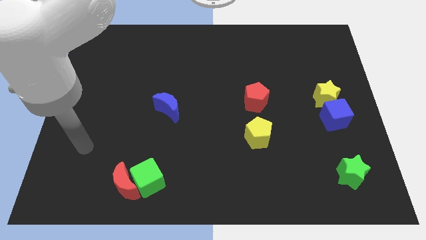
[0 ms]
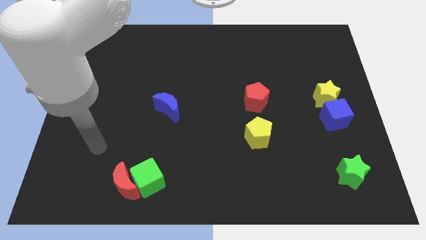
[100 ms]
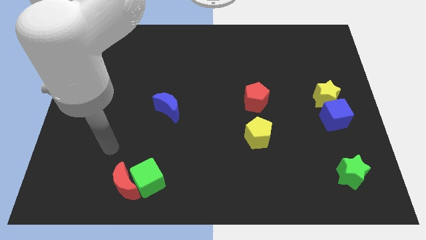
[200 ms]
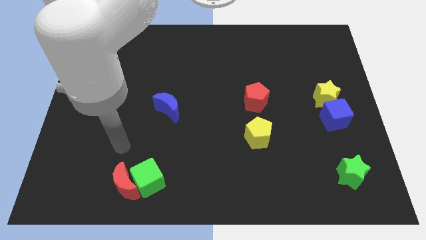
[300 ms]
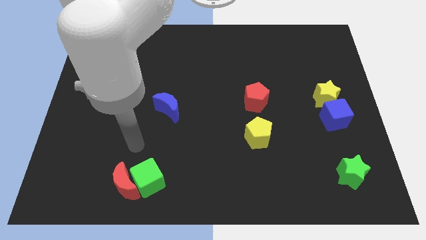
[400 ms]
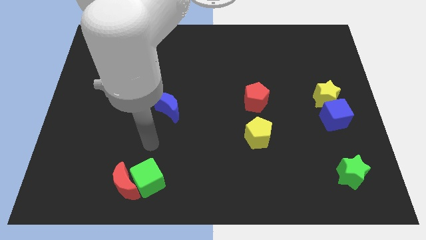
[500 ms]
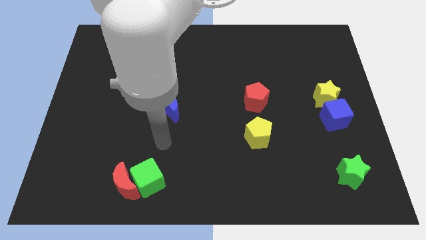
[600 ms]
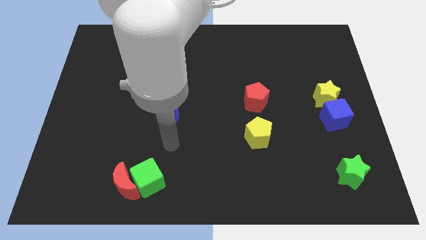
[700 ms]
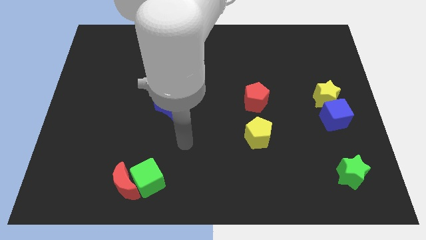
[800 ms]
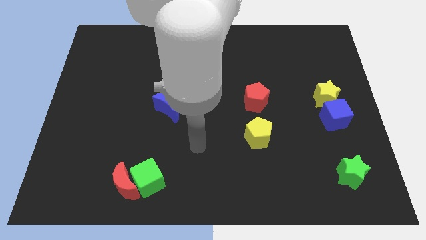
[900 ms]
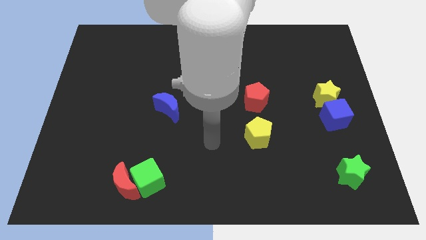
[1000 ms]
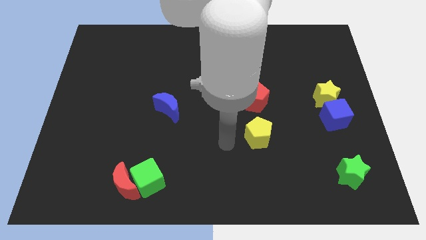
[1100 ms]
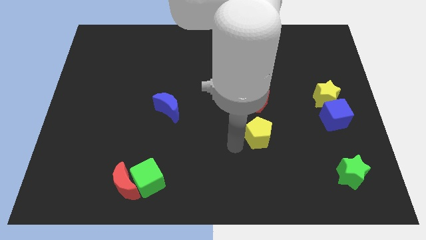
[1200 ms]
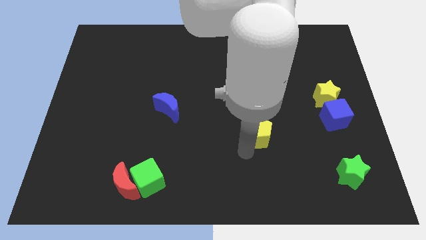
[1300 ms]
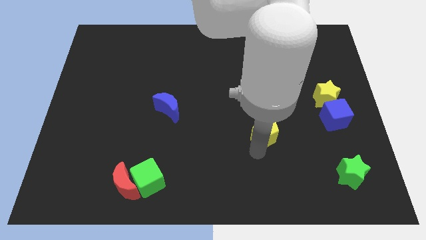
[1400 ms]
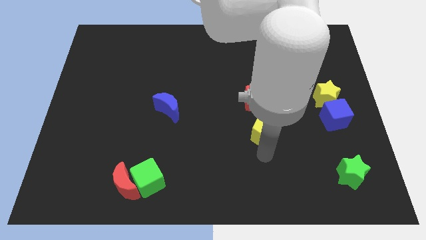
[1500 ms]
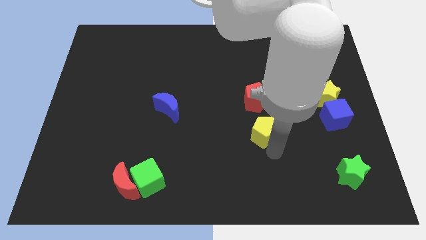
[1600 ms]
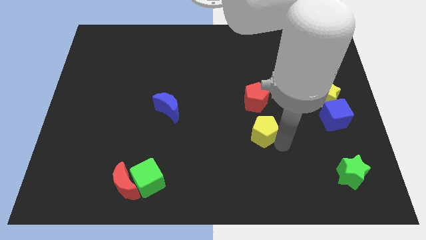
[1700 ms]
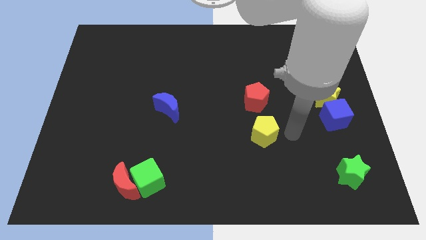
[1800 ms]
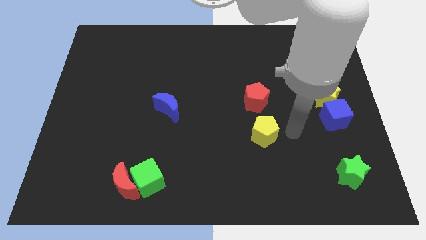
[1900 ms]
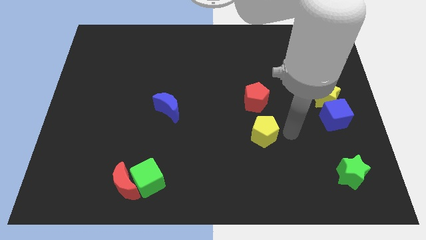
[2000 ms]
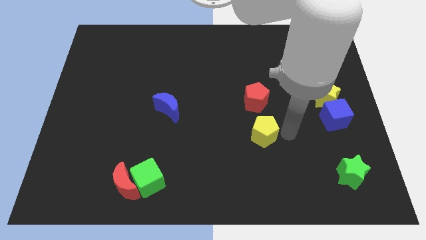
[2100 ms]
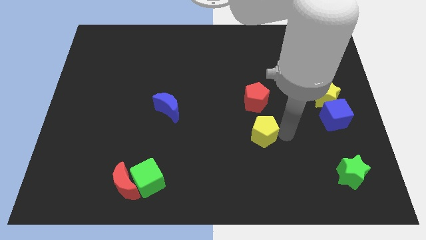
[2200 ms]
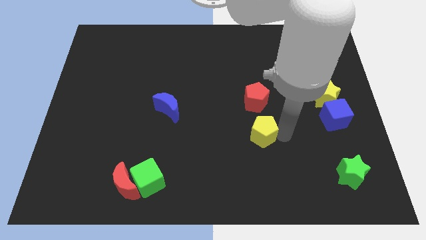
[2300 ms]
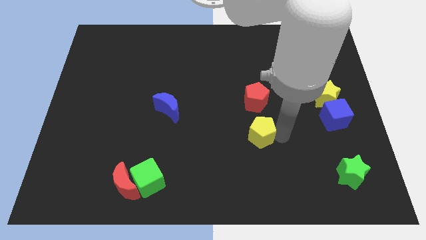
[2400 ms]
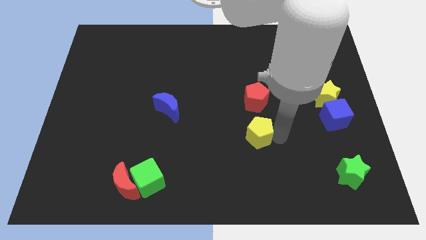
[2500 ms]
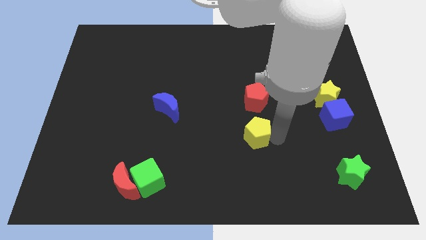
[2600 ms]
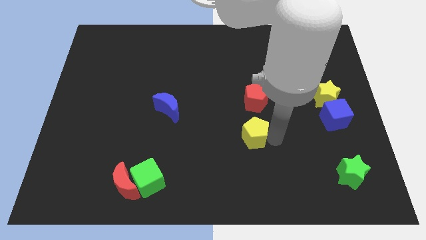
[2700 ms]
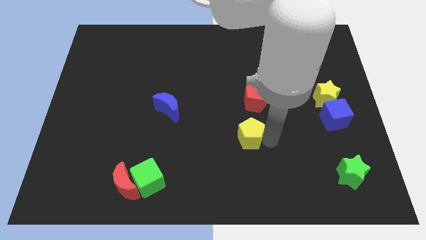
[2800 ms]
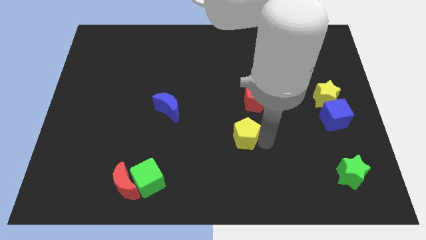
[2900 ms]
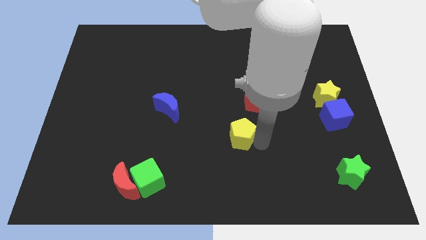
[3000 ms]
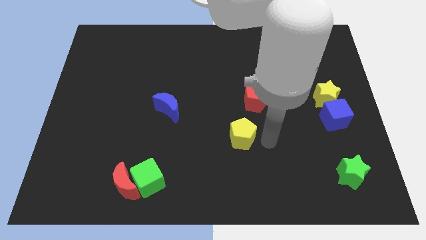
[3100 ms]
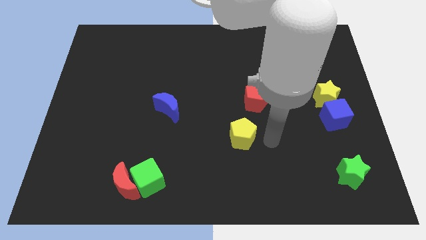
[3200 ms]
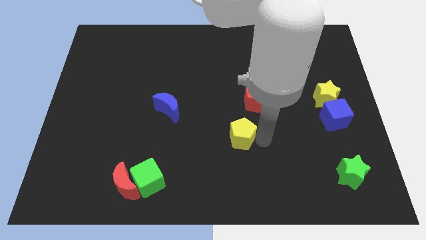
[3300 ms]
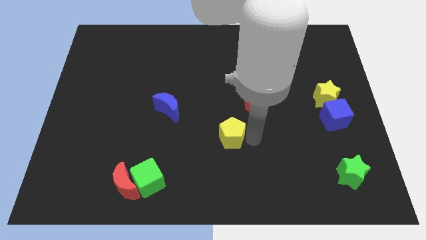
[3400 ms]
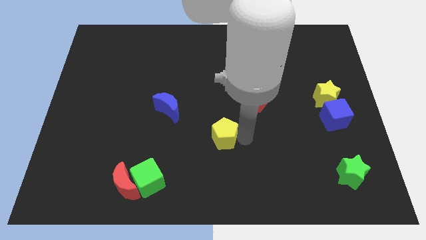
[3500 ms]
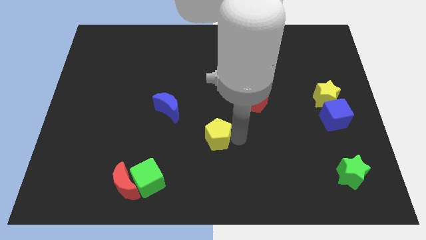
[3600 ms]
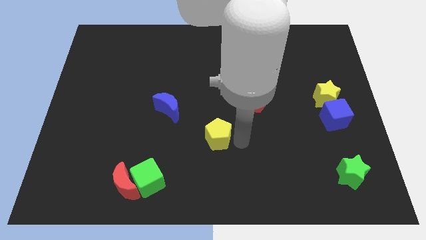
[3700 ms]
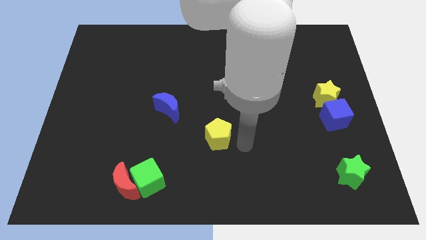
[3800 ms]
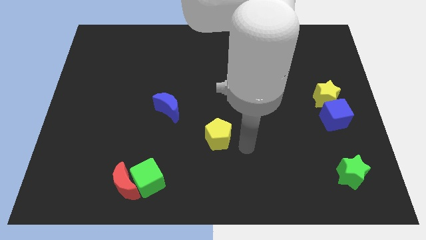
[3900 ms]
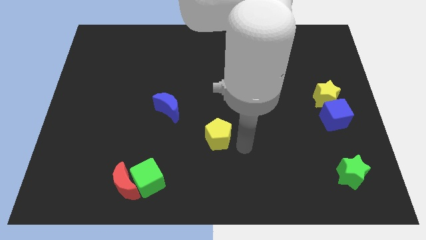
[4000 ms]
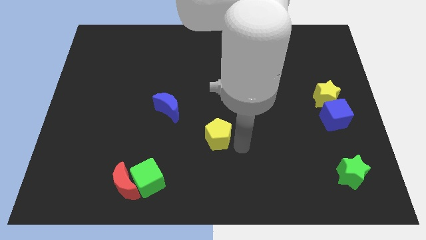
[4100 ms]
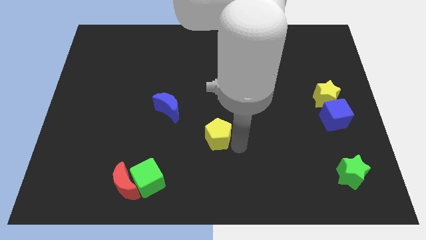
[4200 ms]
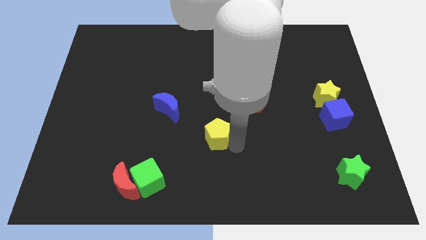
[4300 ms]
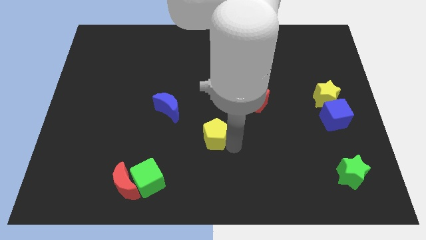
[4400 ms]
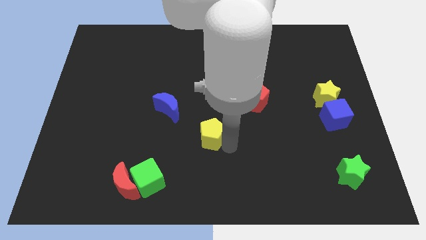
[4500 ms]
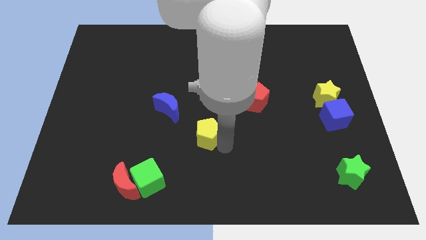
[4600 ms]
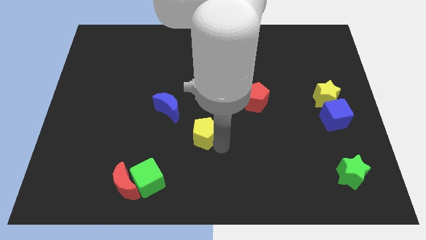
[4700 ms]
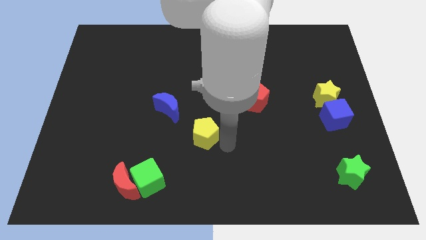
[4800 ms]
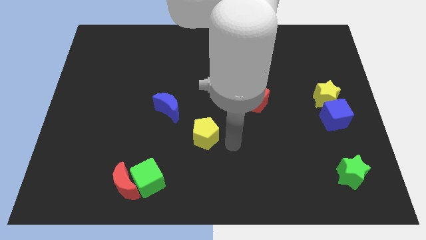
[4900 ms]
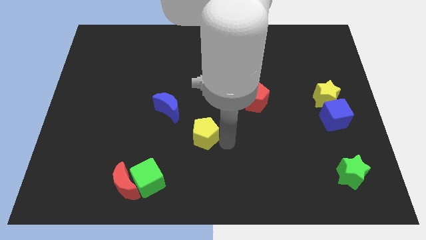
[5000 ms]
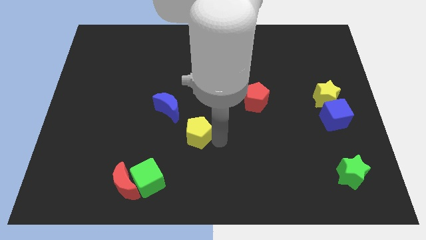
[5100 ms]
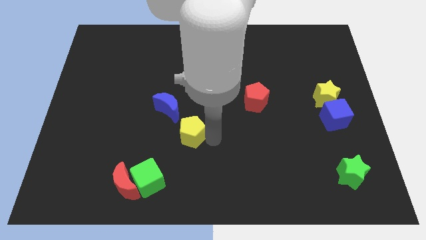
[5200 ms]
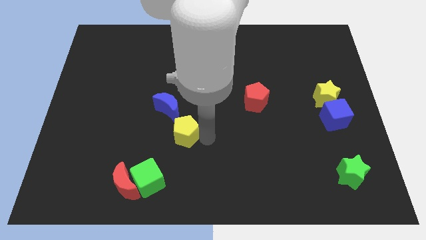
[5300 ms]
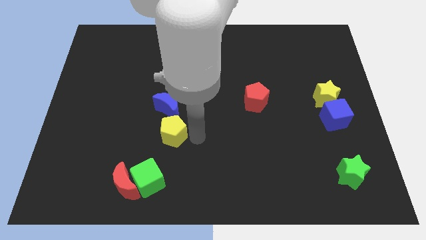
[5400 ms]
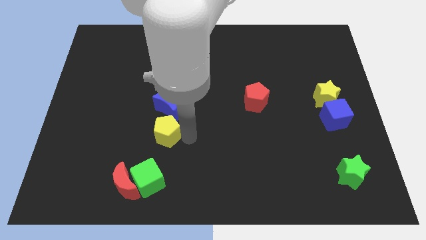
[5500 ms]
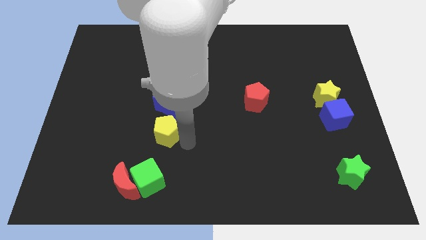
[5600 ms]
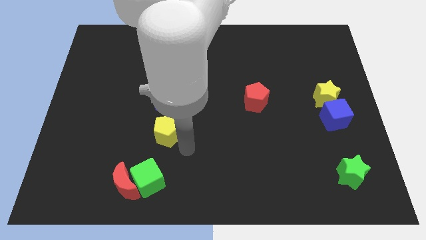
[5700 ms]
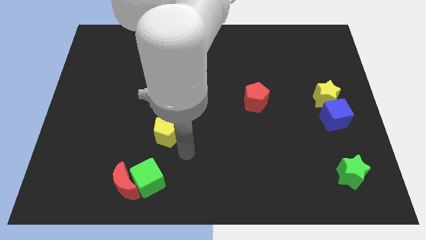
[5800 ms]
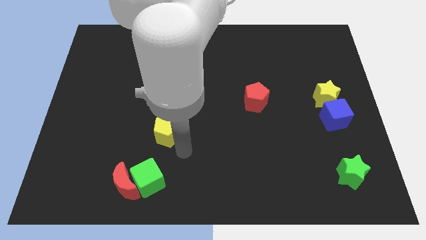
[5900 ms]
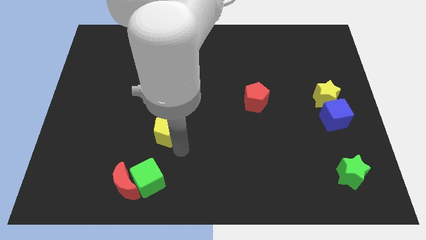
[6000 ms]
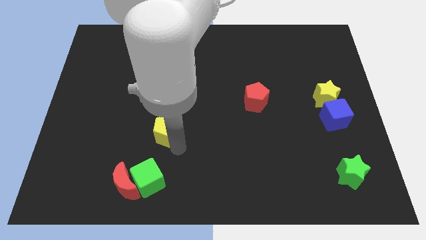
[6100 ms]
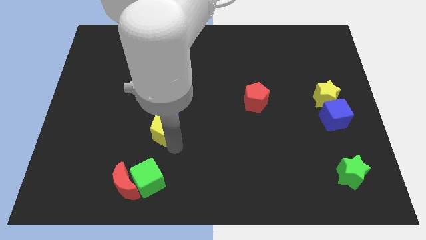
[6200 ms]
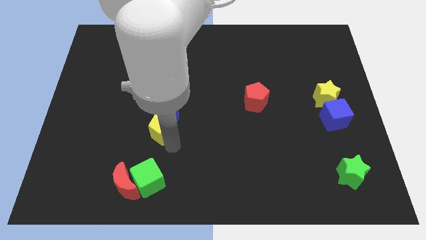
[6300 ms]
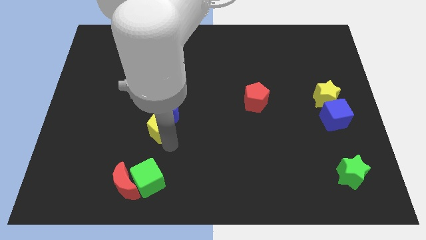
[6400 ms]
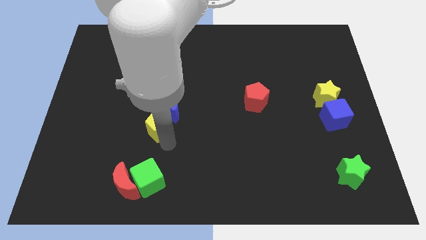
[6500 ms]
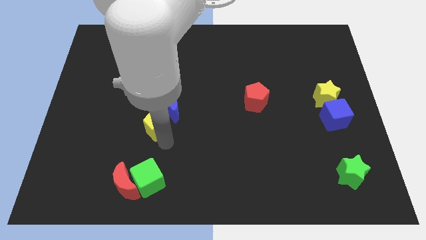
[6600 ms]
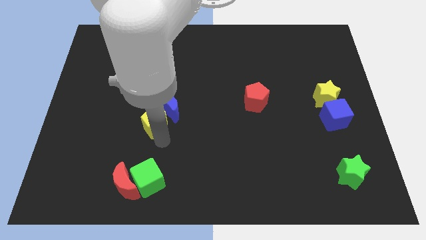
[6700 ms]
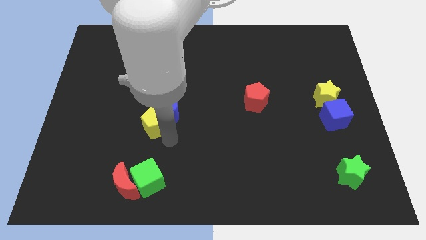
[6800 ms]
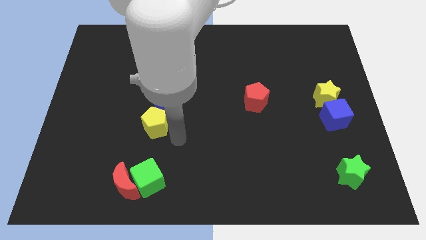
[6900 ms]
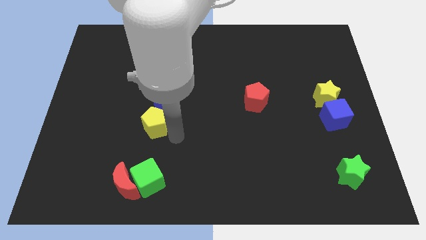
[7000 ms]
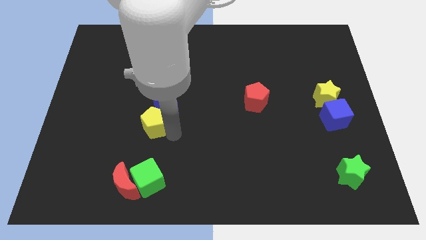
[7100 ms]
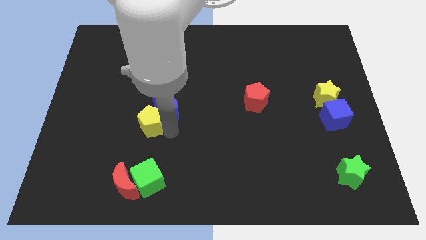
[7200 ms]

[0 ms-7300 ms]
put the yellow pentagon just left of the blue moon

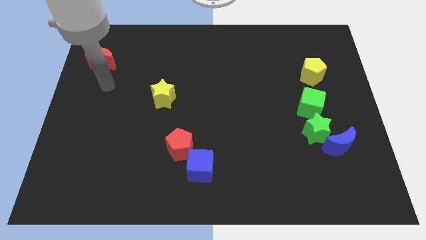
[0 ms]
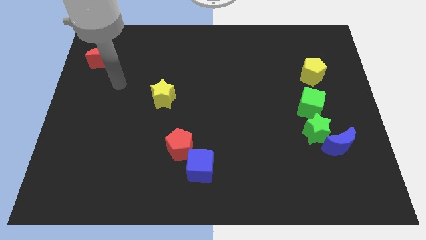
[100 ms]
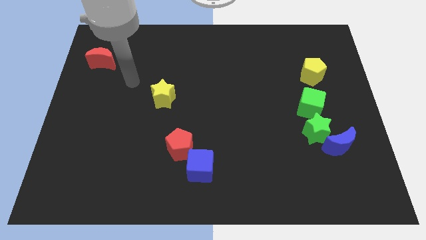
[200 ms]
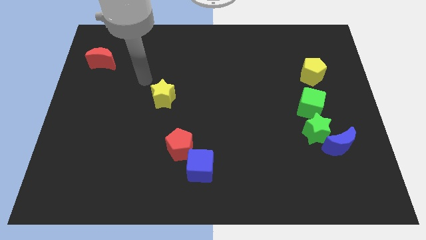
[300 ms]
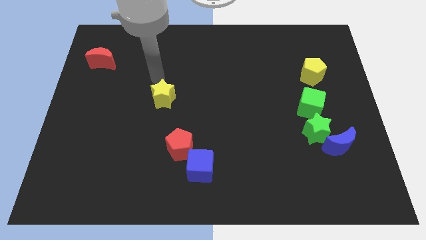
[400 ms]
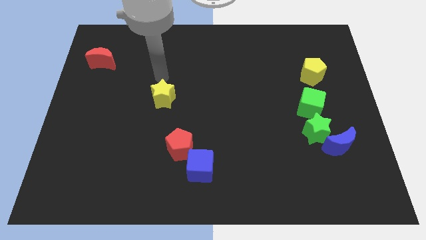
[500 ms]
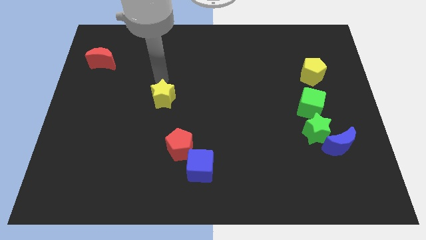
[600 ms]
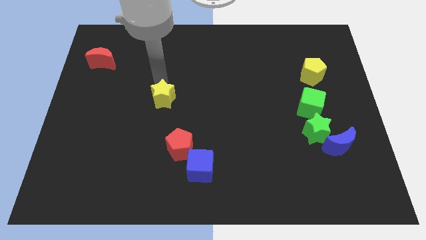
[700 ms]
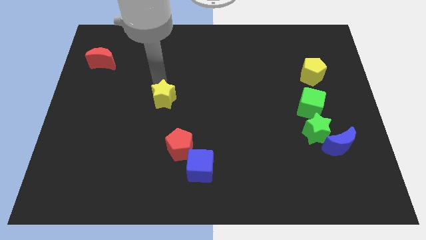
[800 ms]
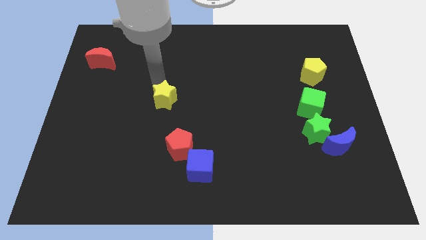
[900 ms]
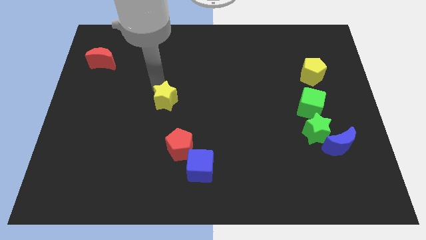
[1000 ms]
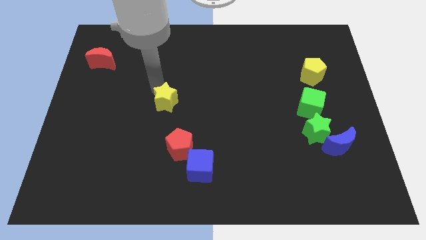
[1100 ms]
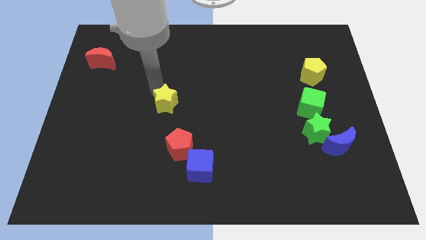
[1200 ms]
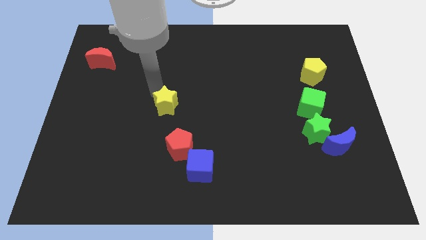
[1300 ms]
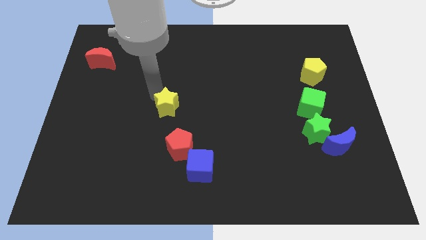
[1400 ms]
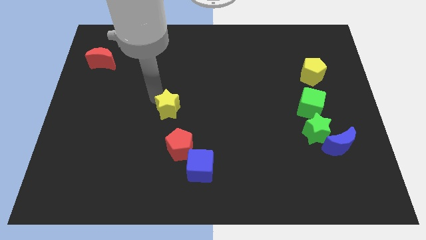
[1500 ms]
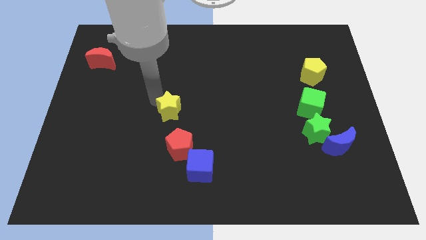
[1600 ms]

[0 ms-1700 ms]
put the yellow star diagonally up and to the left of the red pentagon
